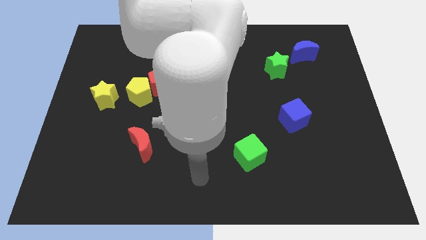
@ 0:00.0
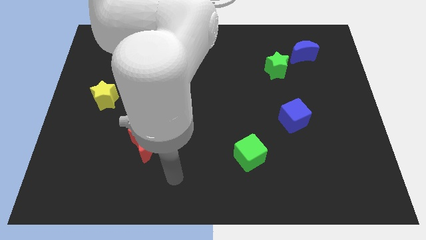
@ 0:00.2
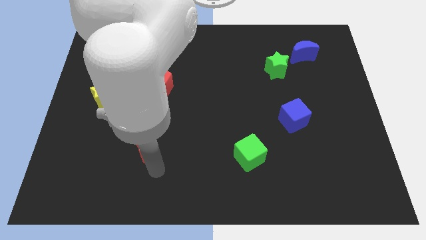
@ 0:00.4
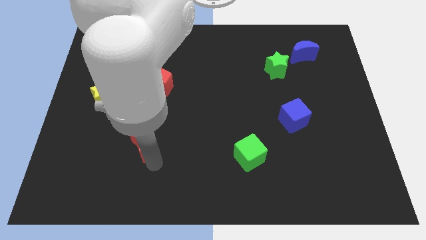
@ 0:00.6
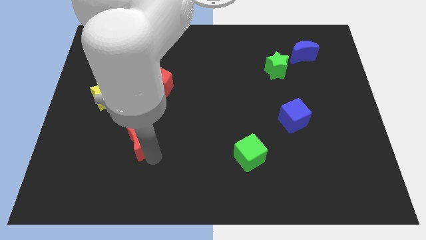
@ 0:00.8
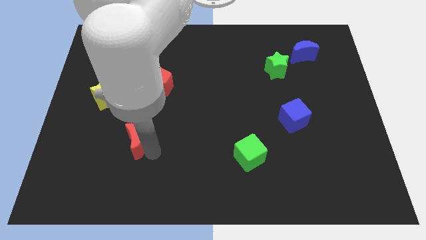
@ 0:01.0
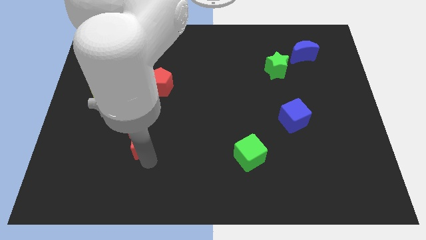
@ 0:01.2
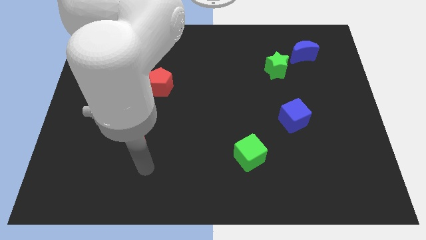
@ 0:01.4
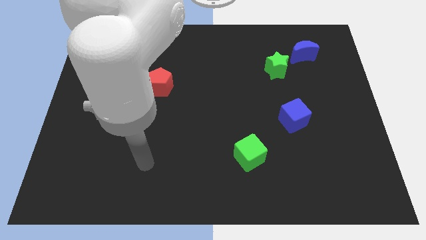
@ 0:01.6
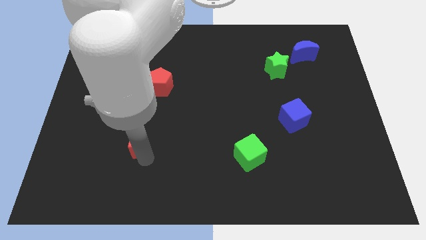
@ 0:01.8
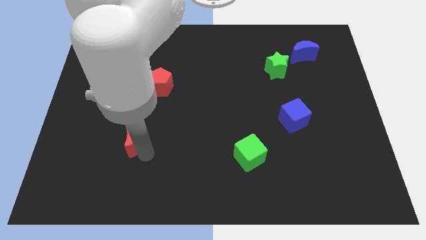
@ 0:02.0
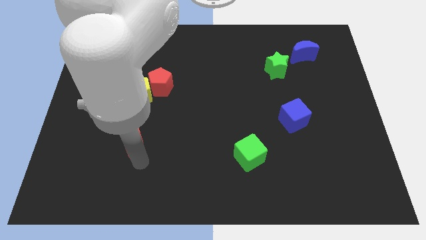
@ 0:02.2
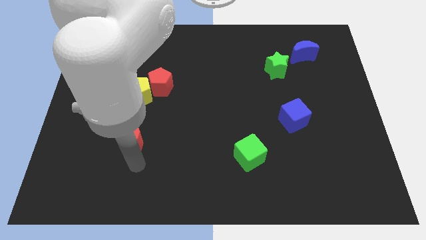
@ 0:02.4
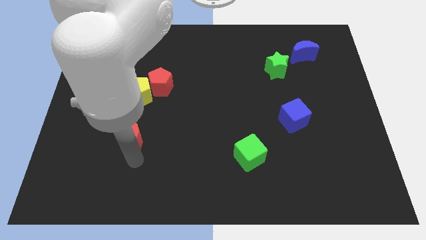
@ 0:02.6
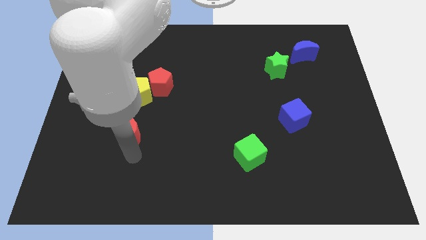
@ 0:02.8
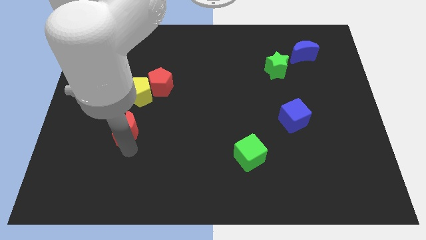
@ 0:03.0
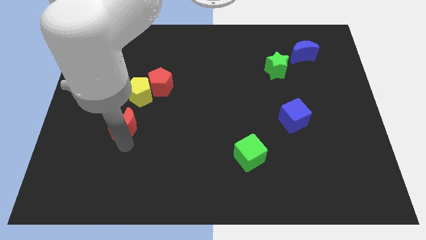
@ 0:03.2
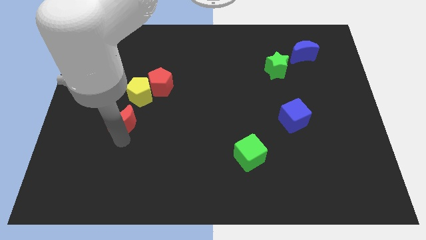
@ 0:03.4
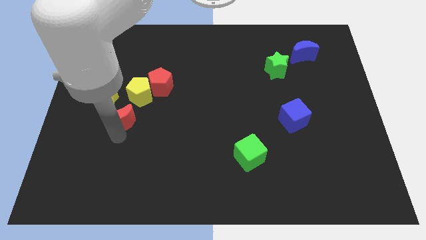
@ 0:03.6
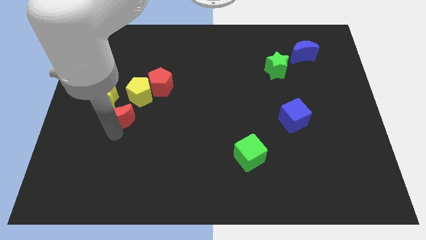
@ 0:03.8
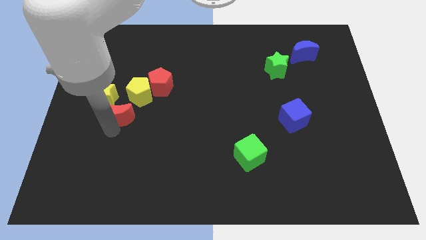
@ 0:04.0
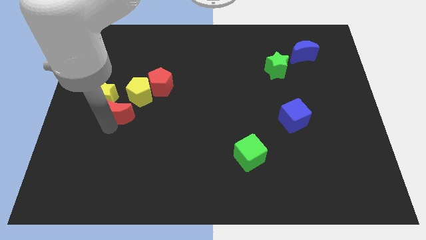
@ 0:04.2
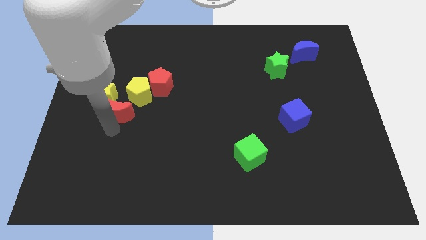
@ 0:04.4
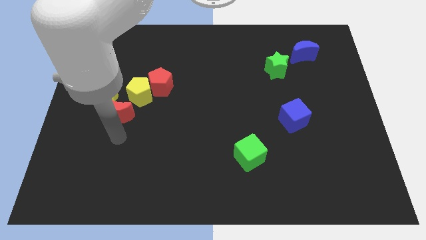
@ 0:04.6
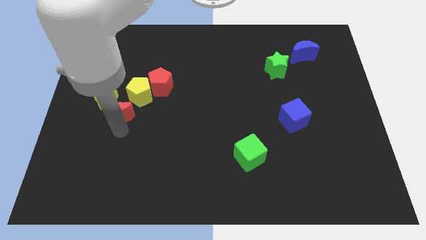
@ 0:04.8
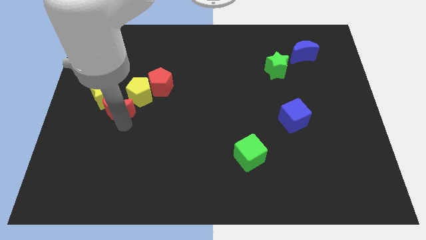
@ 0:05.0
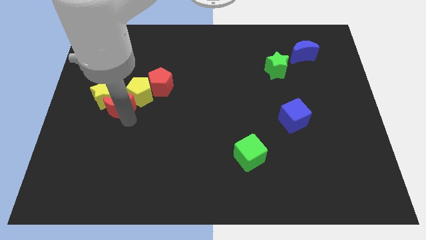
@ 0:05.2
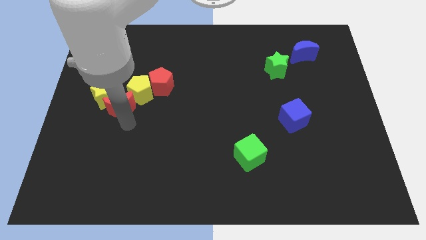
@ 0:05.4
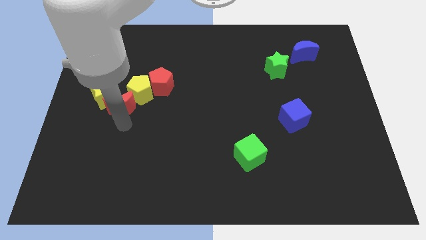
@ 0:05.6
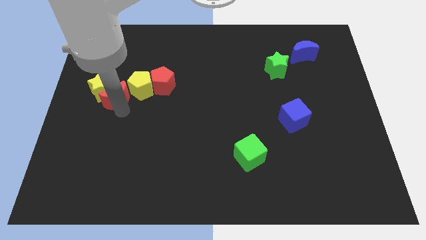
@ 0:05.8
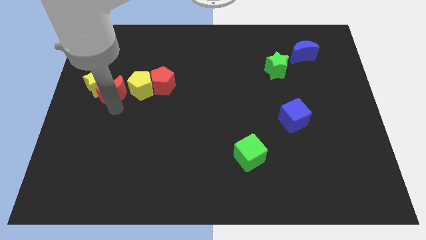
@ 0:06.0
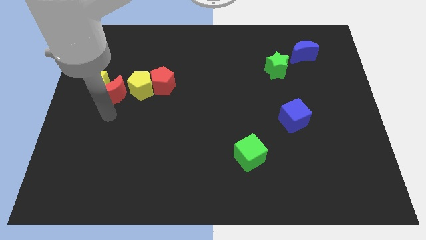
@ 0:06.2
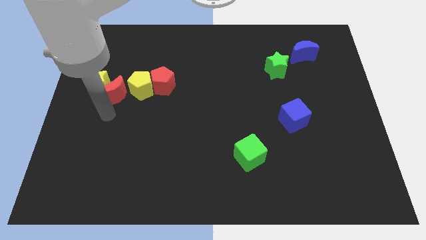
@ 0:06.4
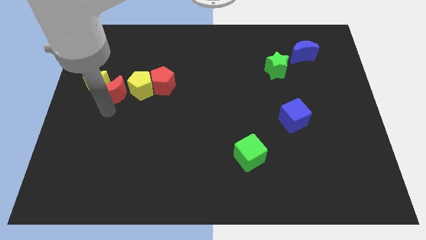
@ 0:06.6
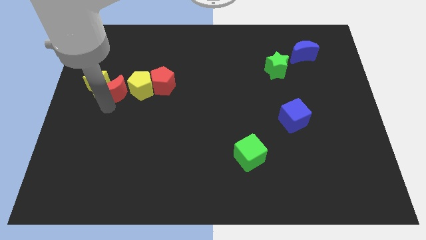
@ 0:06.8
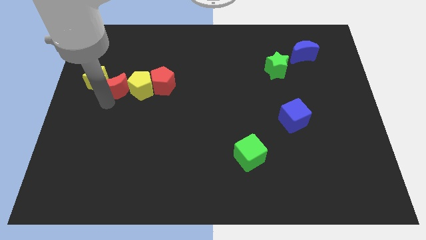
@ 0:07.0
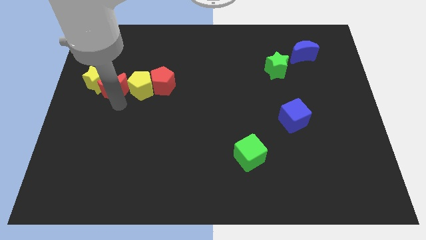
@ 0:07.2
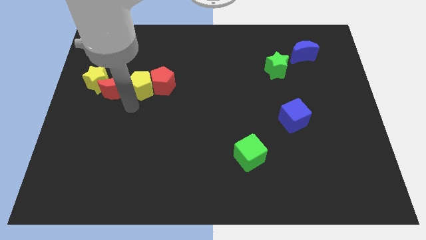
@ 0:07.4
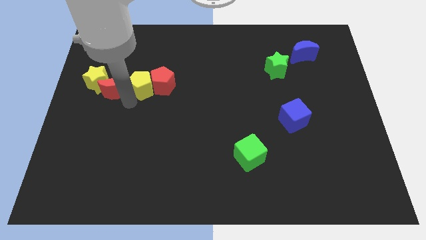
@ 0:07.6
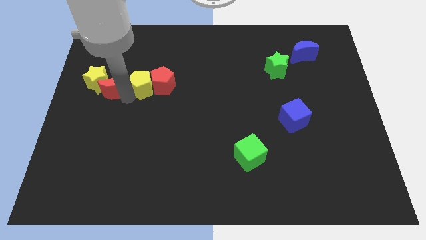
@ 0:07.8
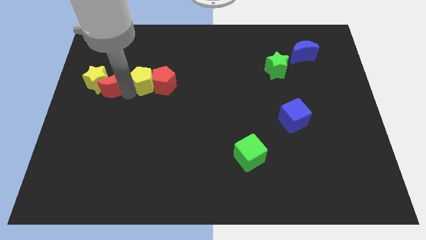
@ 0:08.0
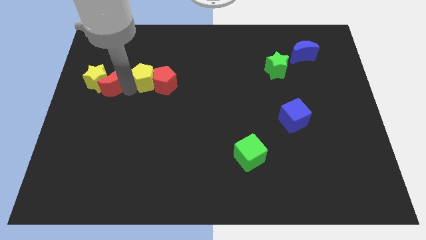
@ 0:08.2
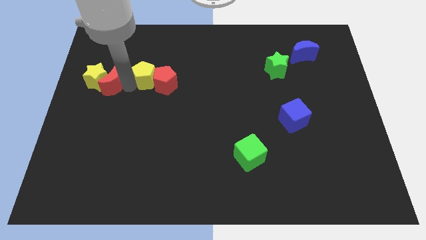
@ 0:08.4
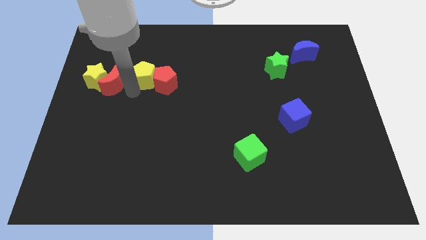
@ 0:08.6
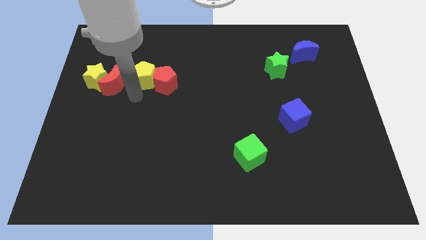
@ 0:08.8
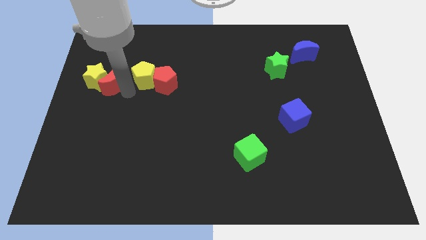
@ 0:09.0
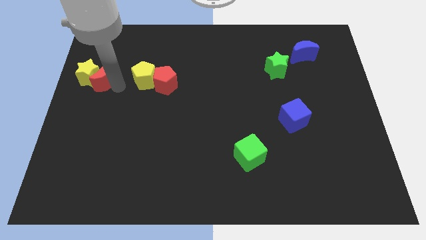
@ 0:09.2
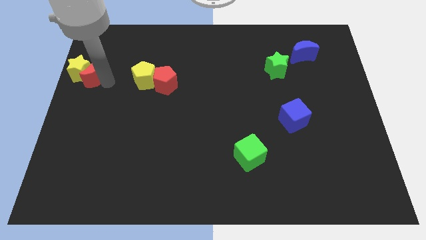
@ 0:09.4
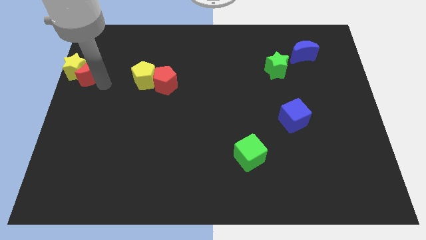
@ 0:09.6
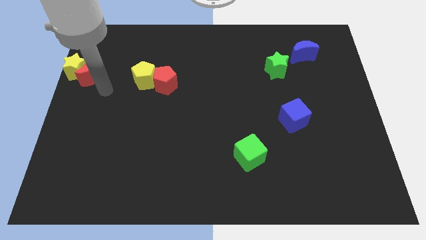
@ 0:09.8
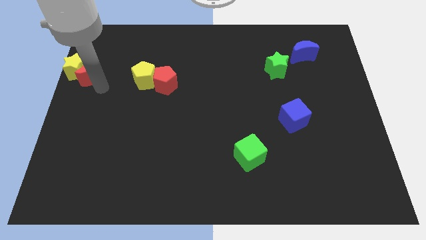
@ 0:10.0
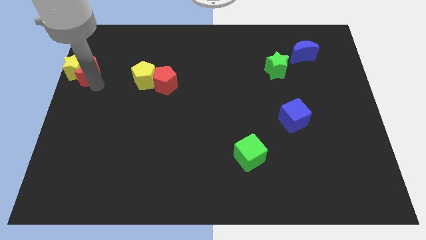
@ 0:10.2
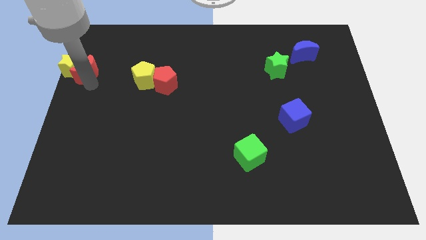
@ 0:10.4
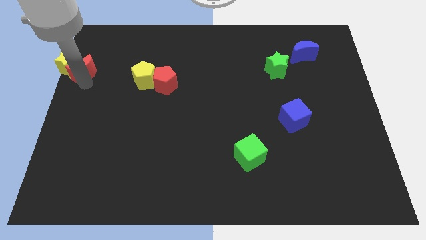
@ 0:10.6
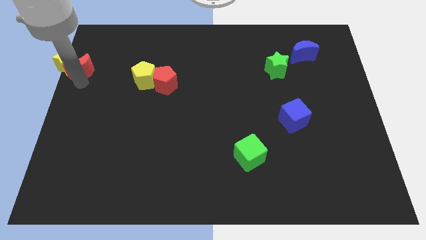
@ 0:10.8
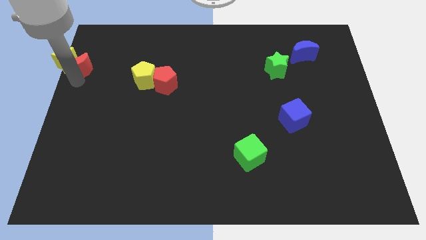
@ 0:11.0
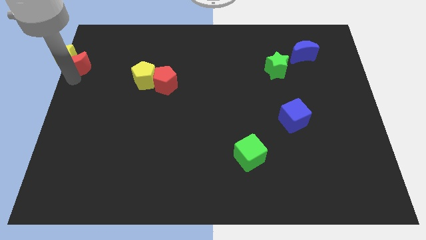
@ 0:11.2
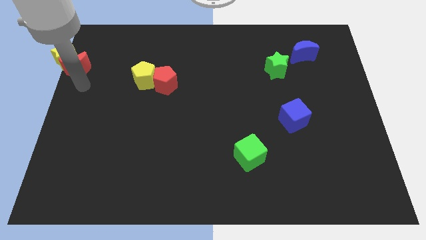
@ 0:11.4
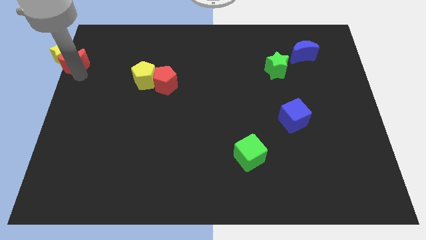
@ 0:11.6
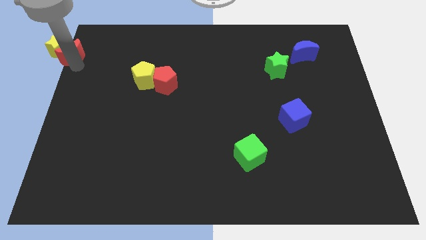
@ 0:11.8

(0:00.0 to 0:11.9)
slide the red moon to the top left corner

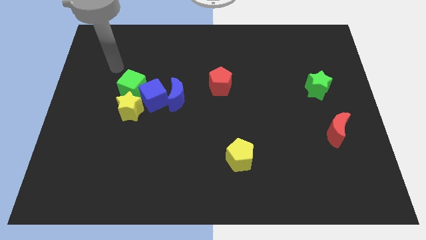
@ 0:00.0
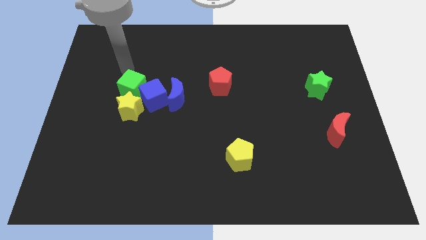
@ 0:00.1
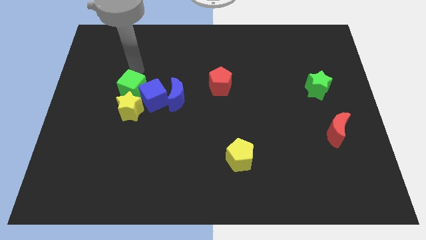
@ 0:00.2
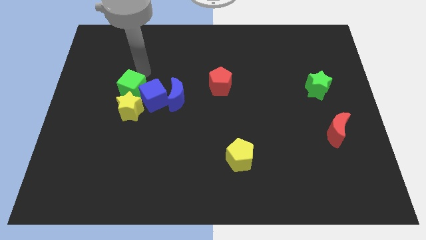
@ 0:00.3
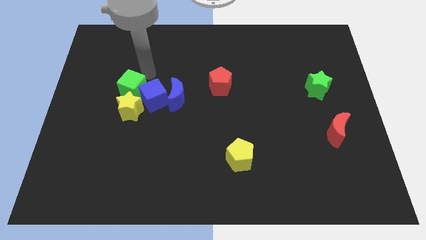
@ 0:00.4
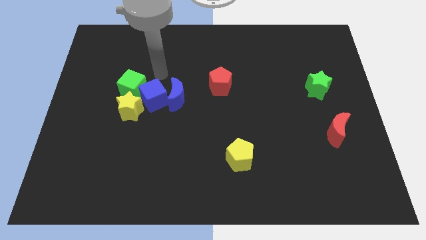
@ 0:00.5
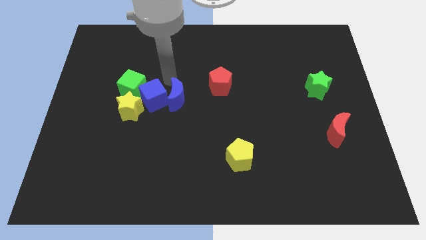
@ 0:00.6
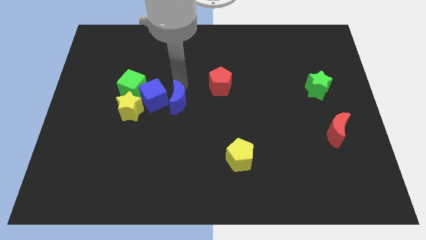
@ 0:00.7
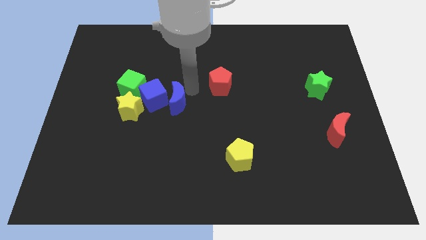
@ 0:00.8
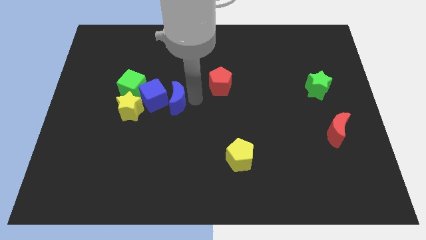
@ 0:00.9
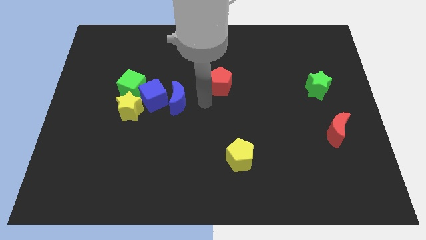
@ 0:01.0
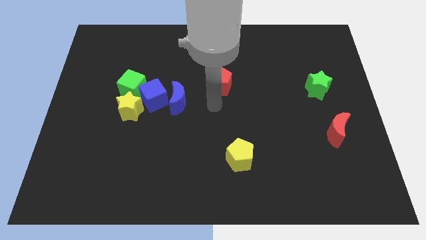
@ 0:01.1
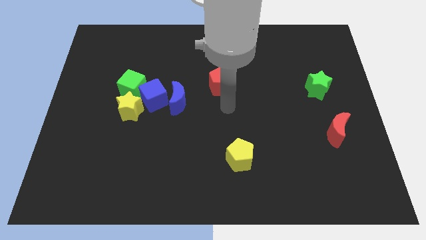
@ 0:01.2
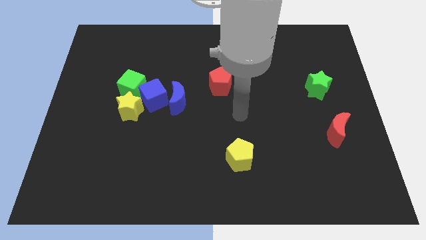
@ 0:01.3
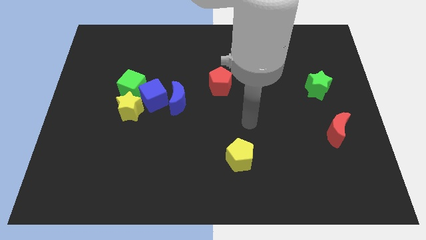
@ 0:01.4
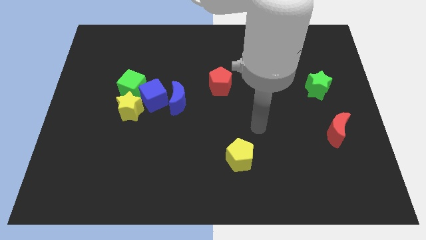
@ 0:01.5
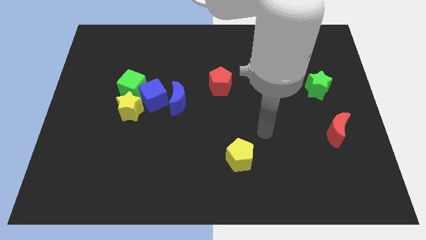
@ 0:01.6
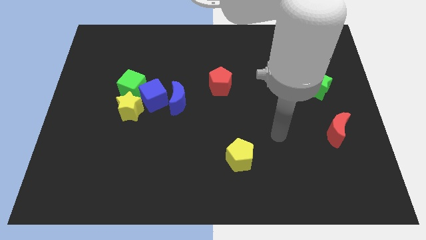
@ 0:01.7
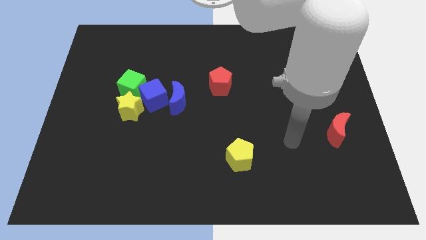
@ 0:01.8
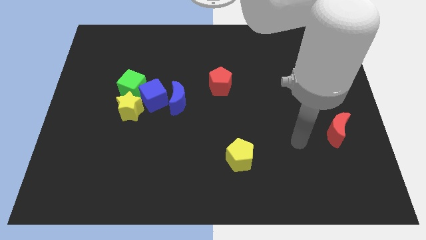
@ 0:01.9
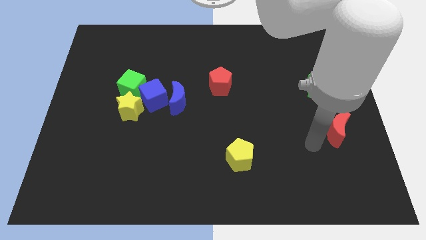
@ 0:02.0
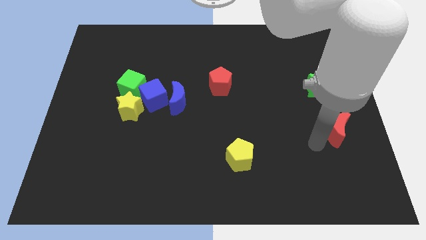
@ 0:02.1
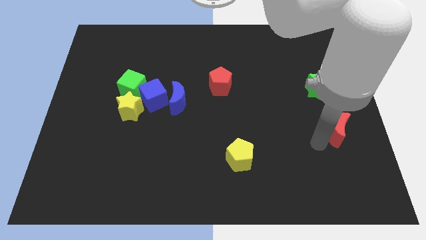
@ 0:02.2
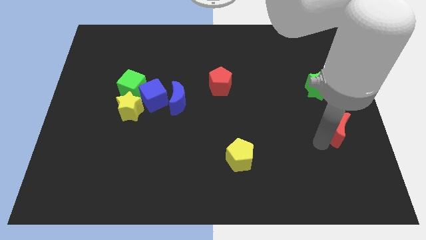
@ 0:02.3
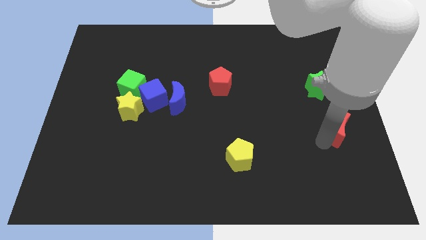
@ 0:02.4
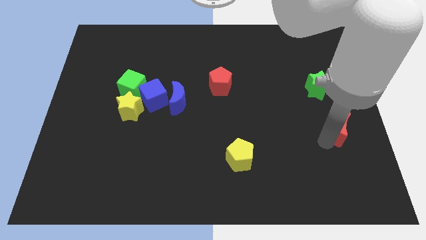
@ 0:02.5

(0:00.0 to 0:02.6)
put the red moon to the right side
